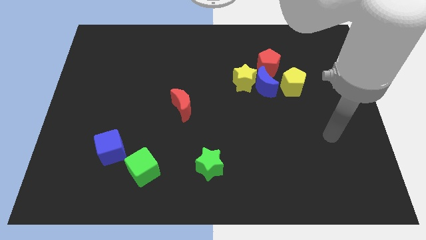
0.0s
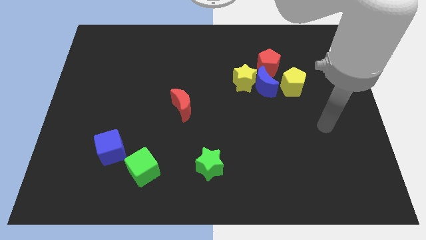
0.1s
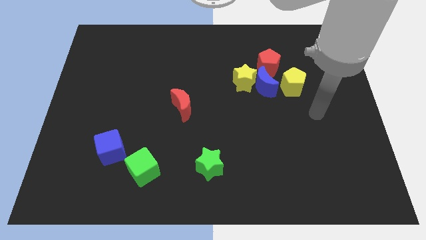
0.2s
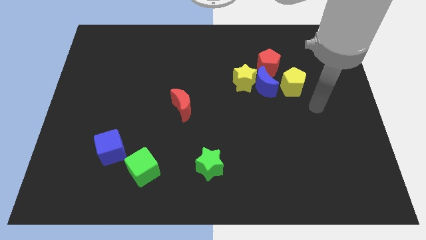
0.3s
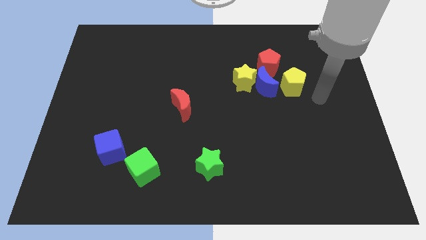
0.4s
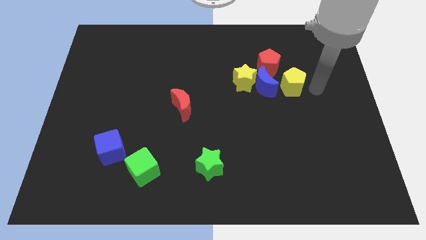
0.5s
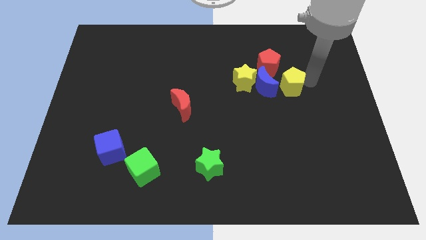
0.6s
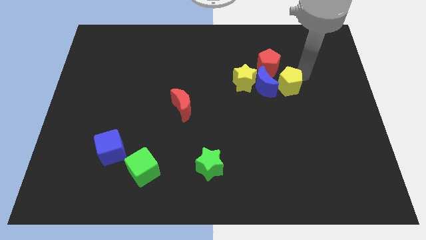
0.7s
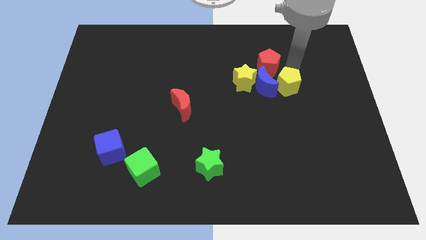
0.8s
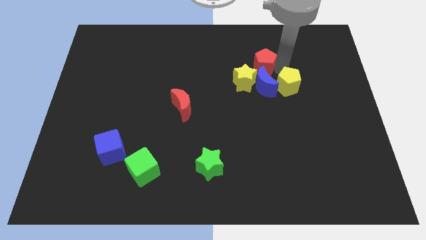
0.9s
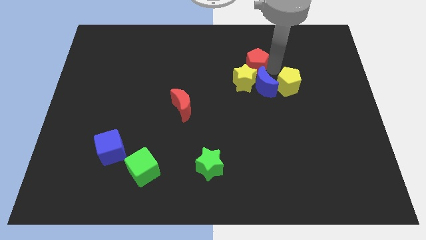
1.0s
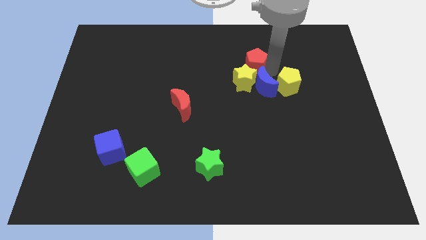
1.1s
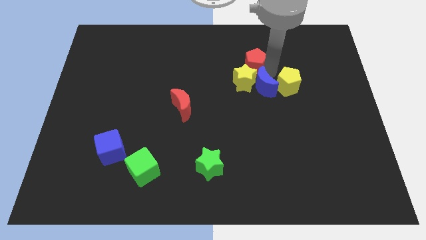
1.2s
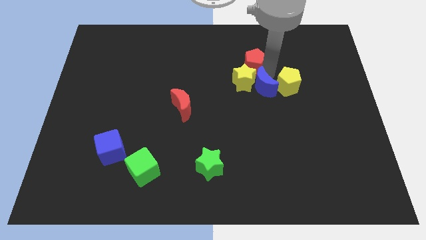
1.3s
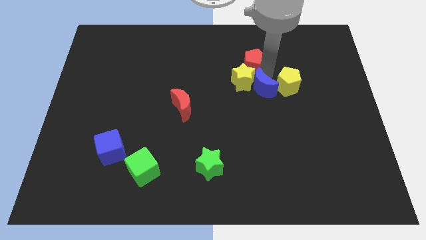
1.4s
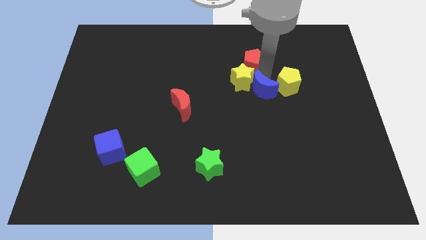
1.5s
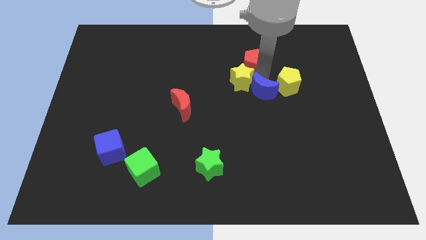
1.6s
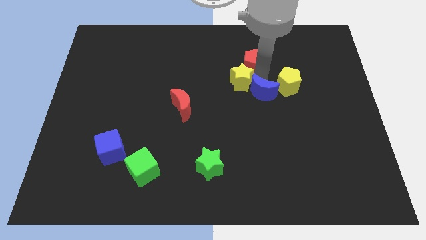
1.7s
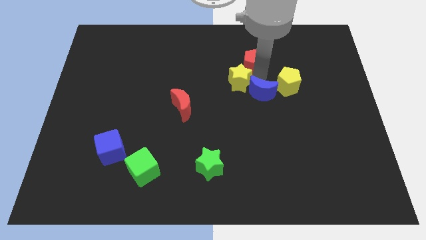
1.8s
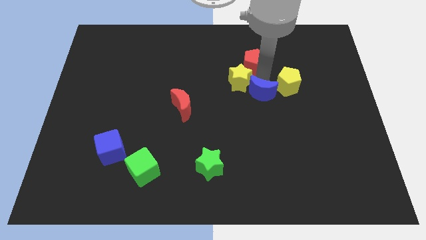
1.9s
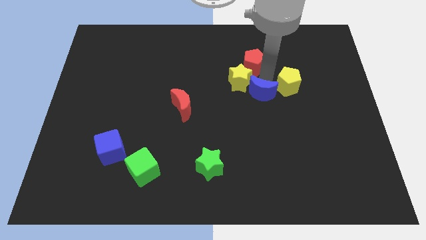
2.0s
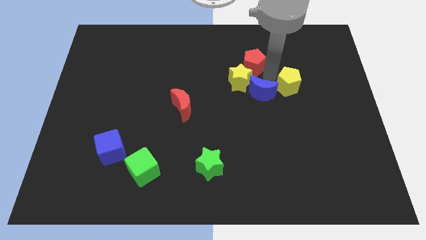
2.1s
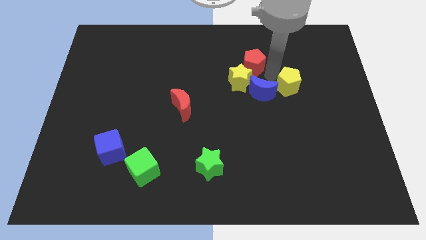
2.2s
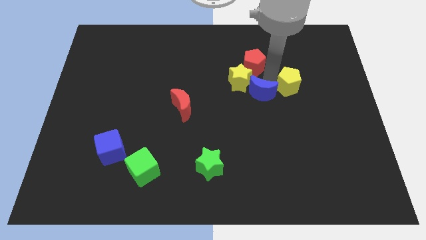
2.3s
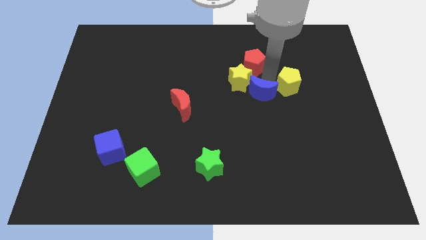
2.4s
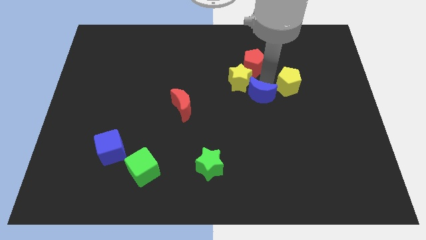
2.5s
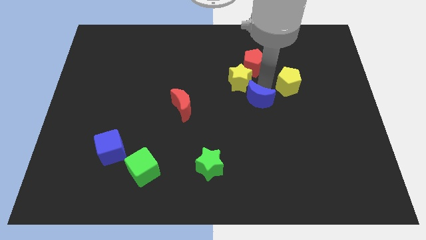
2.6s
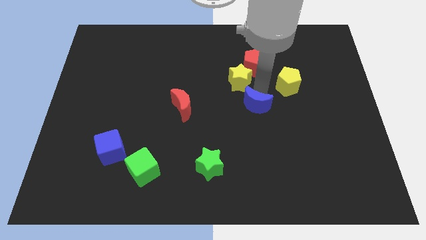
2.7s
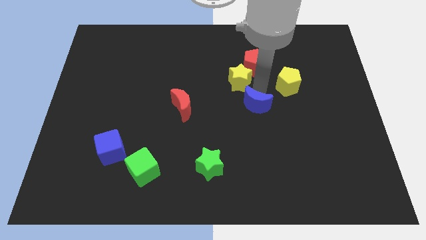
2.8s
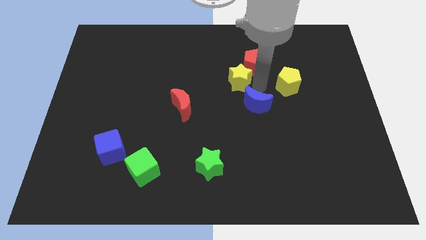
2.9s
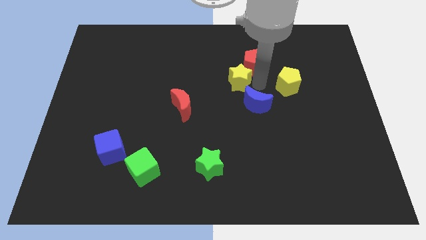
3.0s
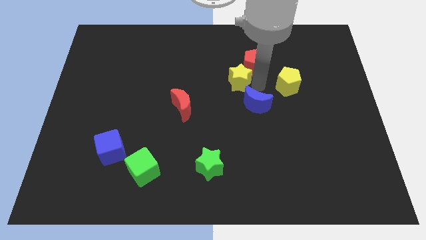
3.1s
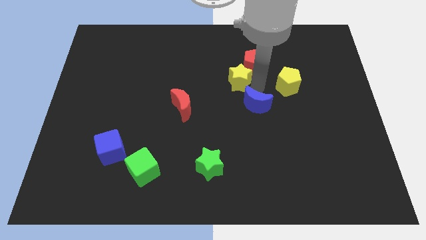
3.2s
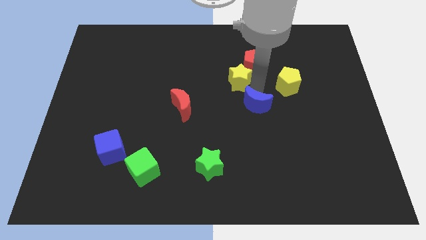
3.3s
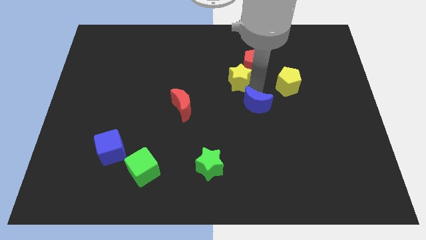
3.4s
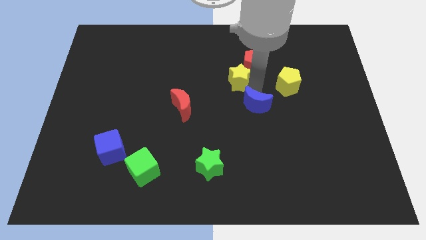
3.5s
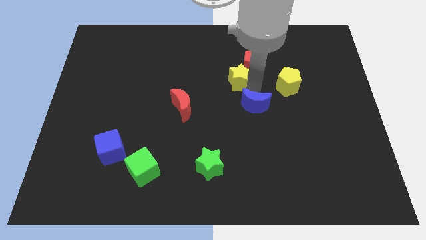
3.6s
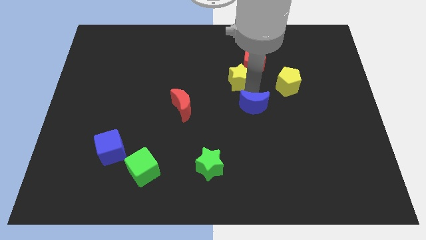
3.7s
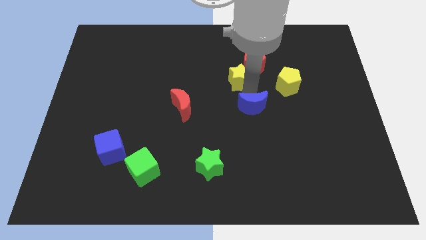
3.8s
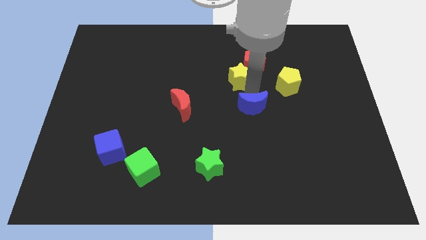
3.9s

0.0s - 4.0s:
separate the blue moon from the clump

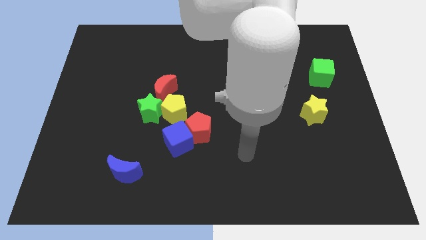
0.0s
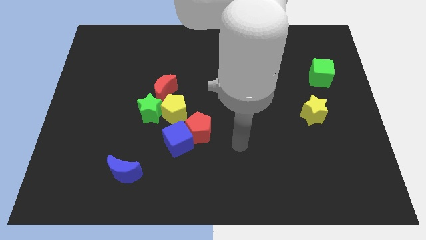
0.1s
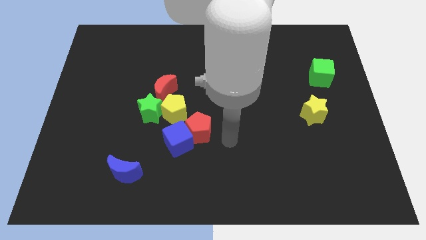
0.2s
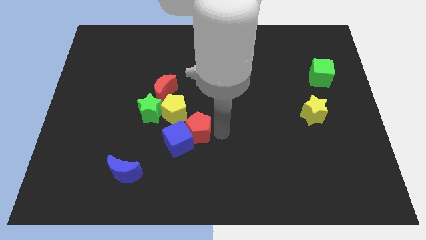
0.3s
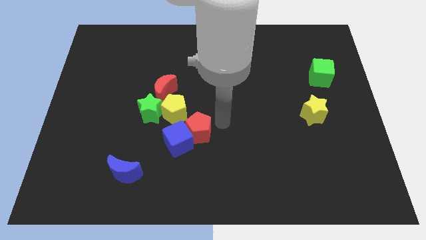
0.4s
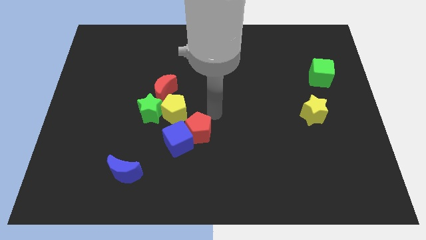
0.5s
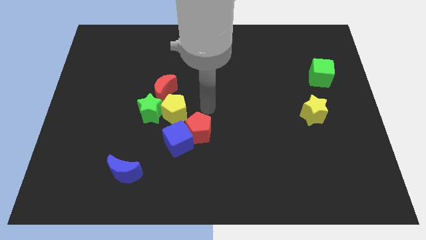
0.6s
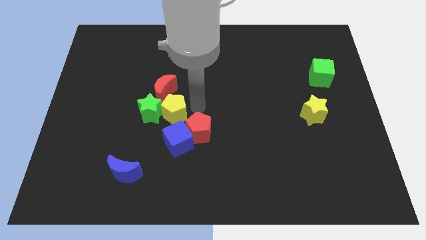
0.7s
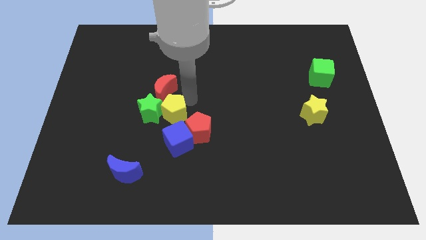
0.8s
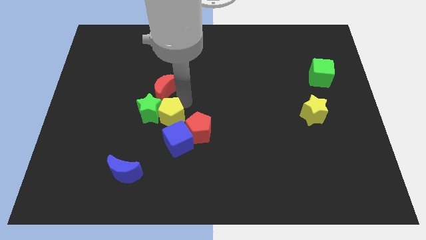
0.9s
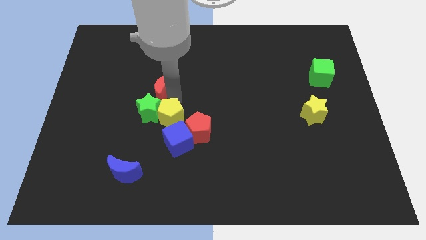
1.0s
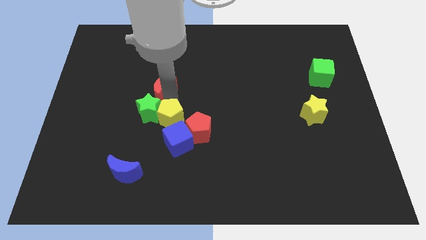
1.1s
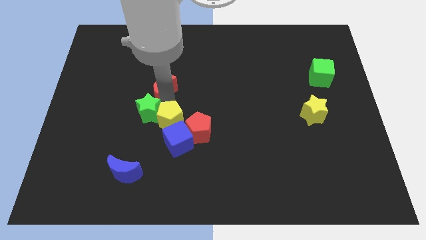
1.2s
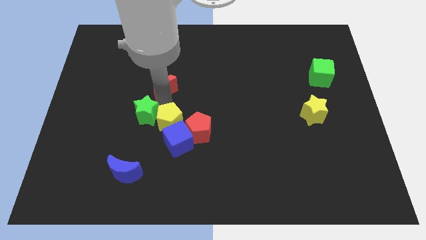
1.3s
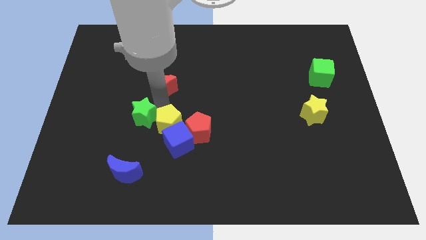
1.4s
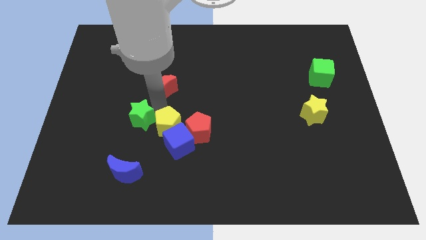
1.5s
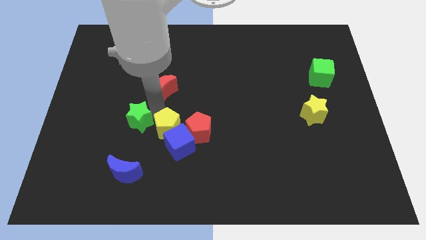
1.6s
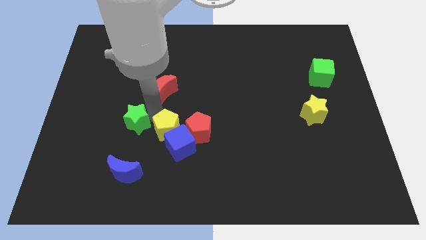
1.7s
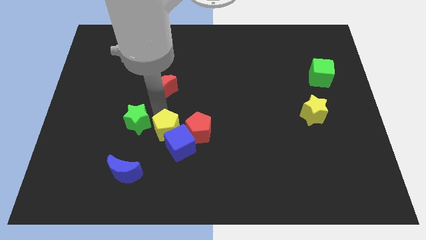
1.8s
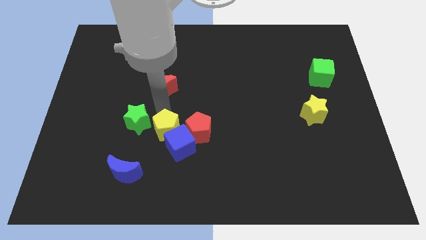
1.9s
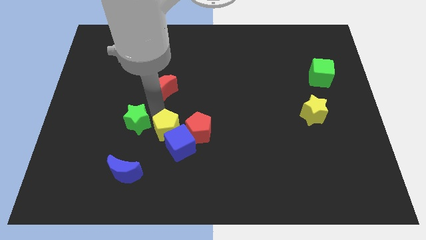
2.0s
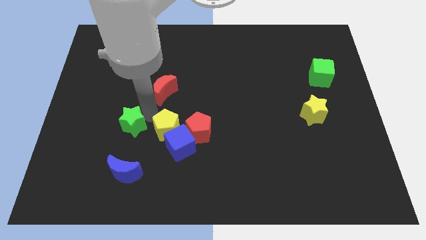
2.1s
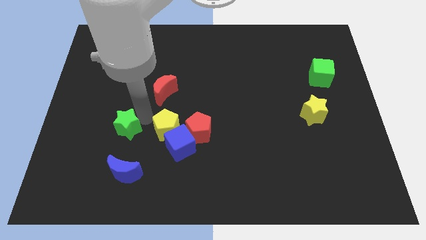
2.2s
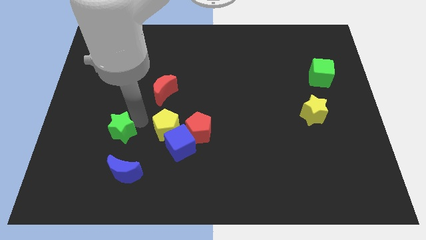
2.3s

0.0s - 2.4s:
move the green star away from the yellow pentagon and red moon

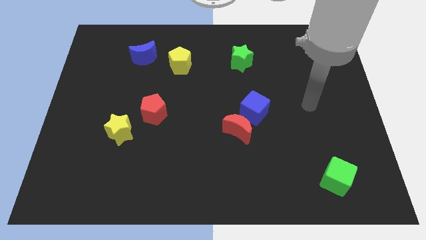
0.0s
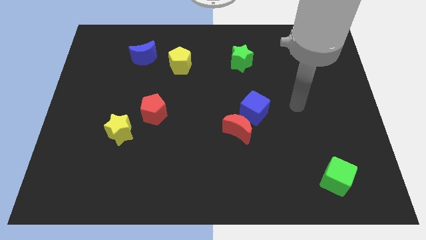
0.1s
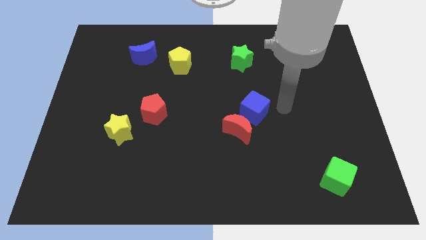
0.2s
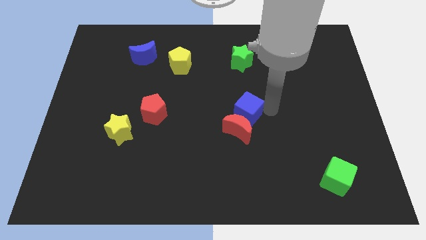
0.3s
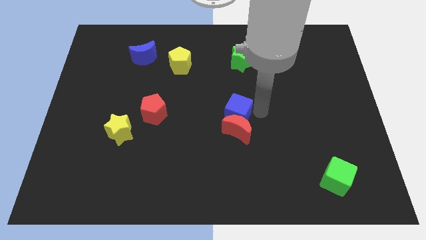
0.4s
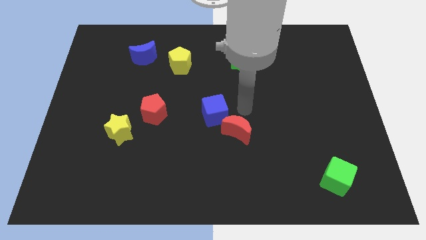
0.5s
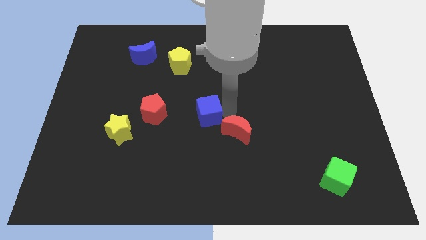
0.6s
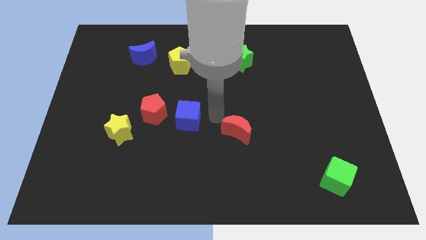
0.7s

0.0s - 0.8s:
move the red moon away from the blue cube

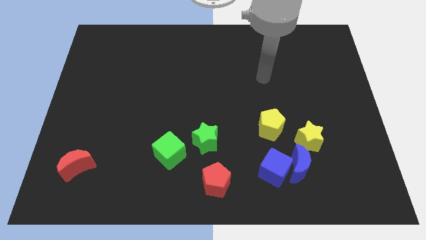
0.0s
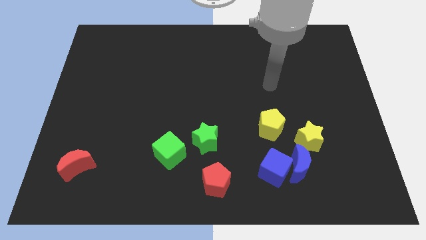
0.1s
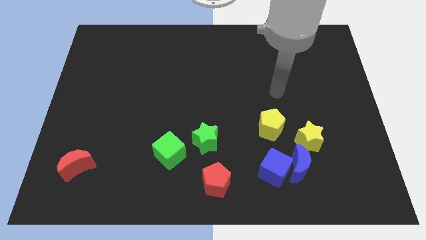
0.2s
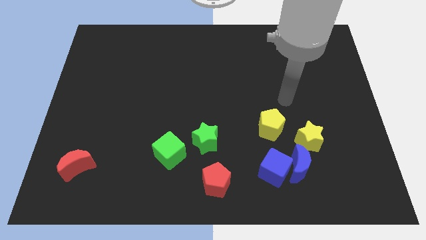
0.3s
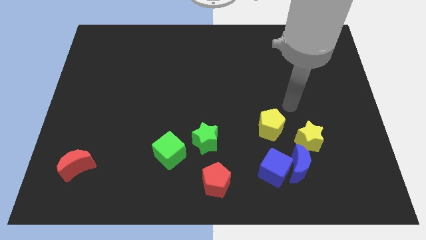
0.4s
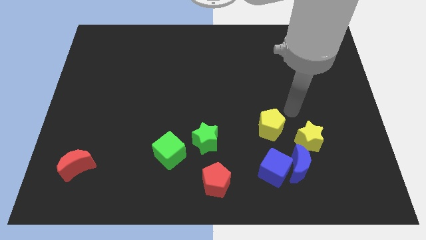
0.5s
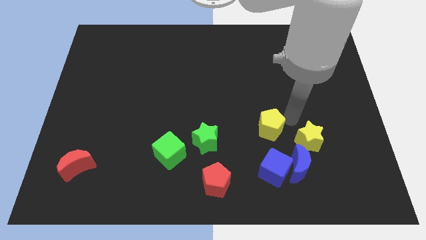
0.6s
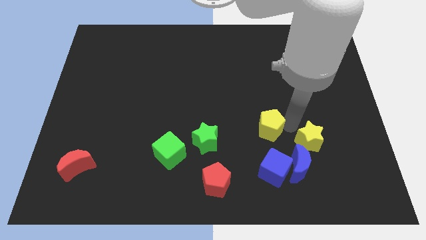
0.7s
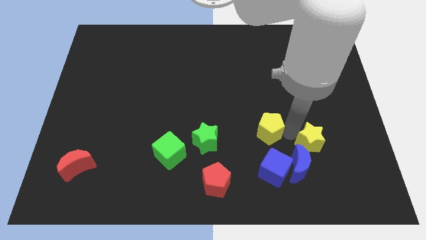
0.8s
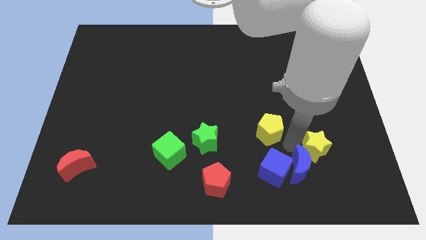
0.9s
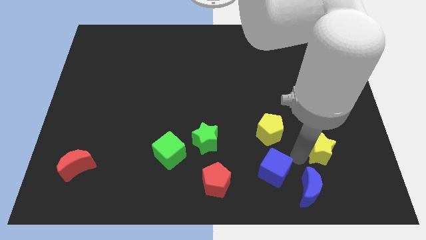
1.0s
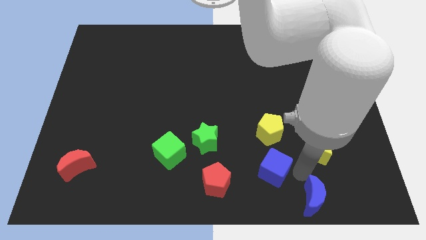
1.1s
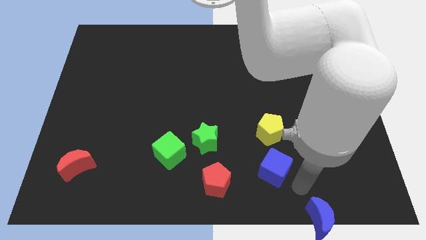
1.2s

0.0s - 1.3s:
move the blue cube away from the blue moon

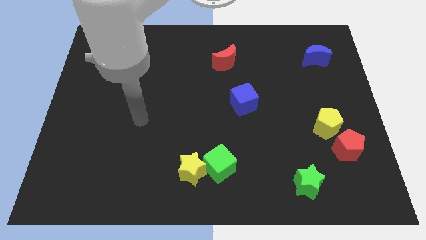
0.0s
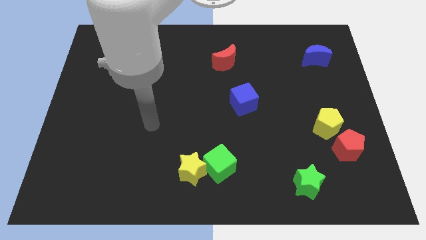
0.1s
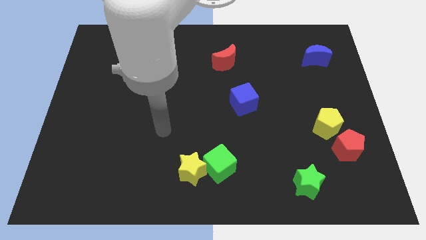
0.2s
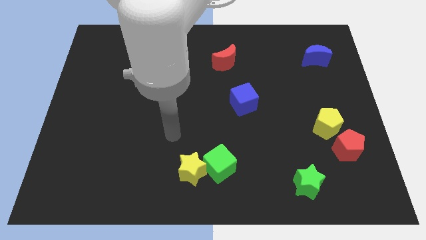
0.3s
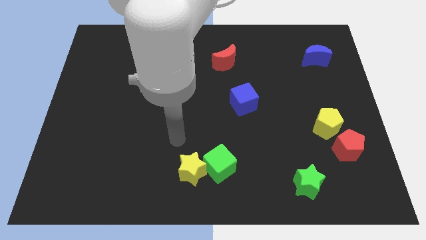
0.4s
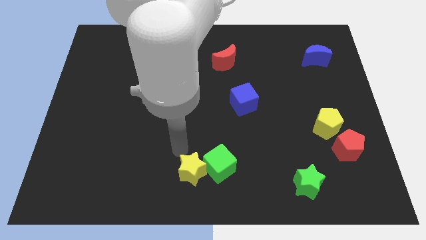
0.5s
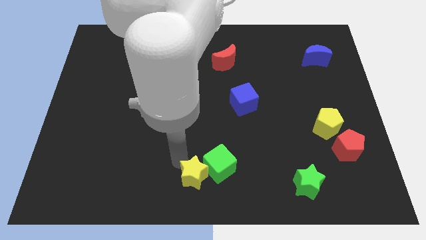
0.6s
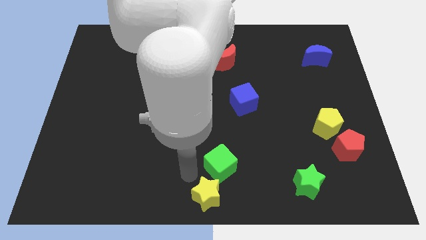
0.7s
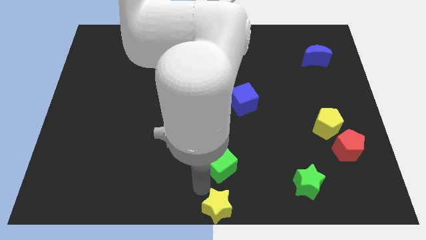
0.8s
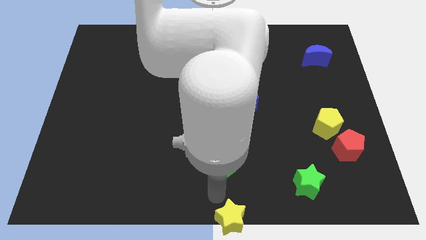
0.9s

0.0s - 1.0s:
separate the green cube from the yellow star
